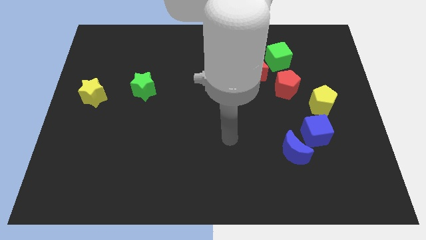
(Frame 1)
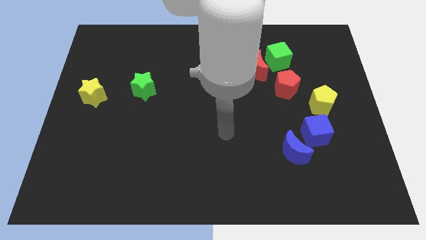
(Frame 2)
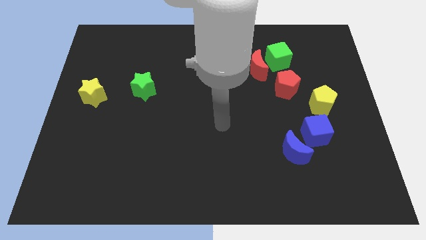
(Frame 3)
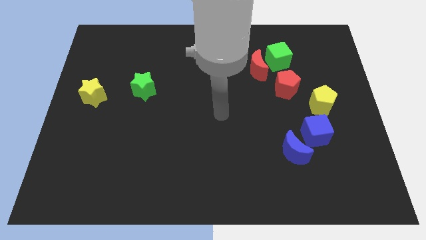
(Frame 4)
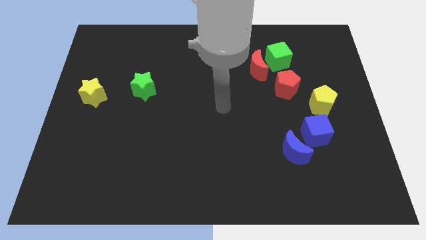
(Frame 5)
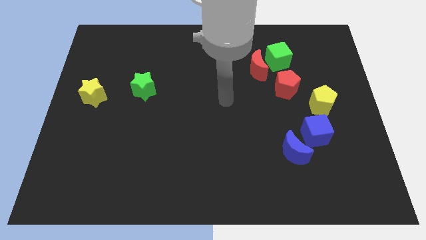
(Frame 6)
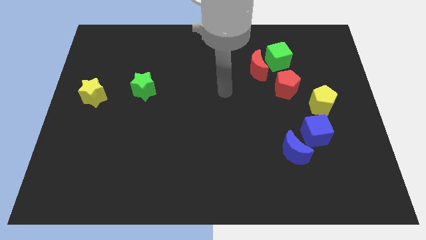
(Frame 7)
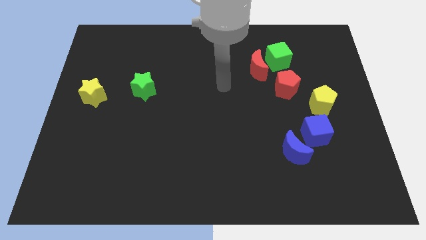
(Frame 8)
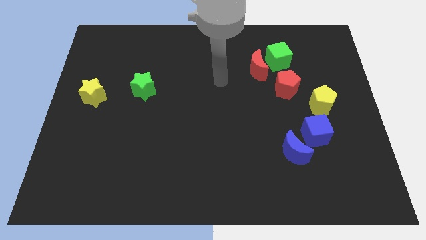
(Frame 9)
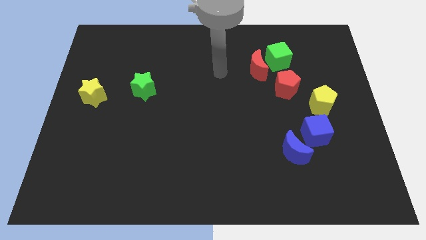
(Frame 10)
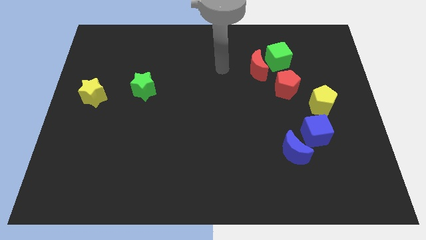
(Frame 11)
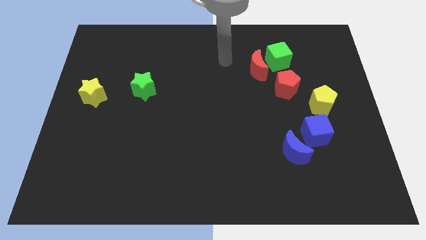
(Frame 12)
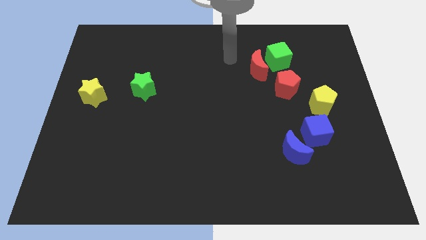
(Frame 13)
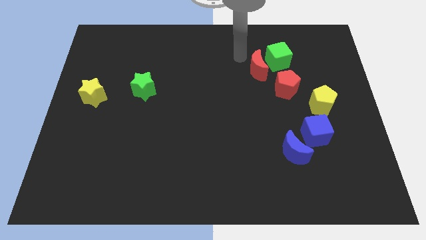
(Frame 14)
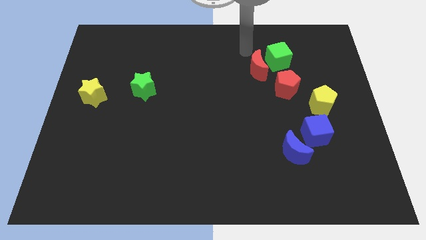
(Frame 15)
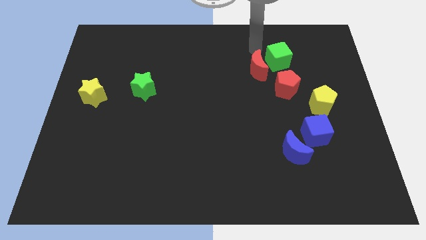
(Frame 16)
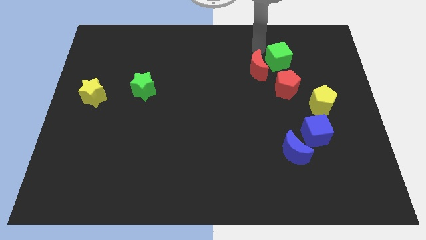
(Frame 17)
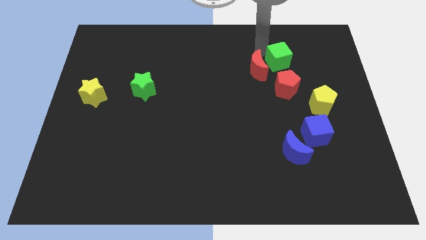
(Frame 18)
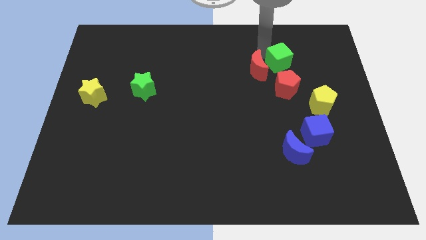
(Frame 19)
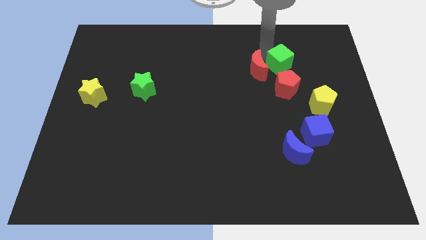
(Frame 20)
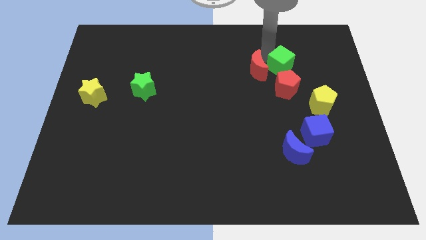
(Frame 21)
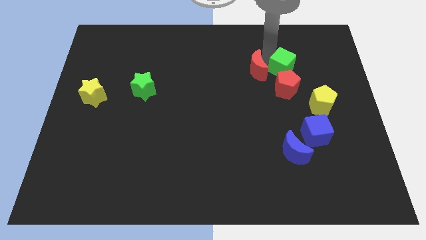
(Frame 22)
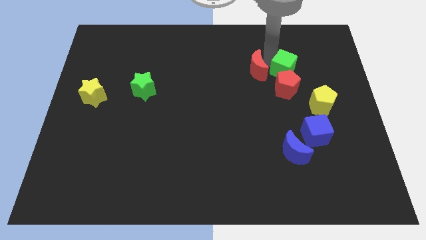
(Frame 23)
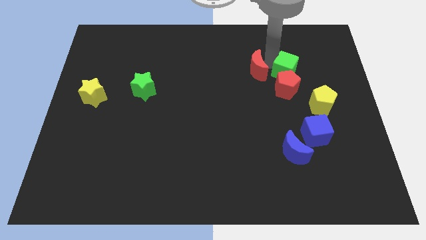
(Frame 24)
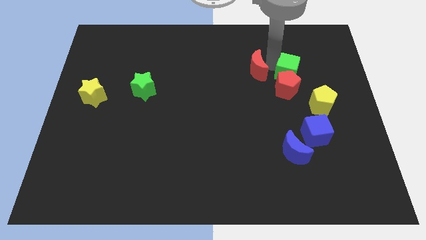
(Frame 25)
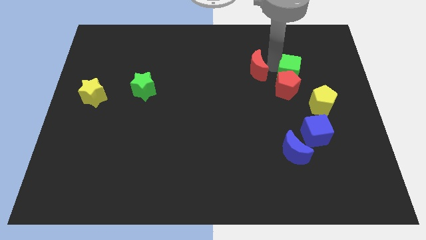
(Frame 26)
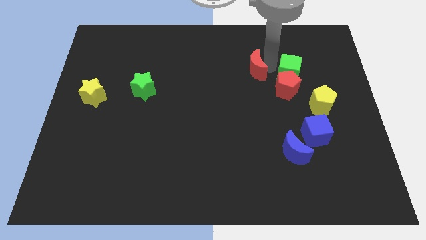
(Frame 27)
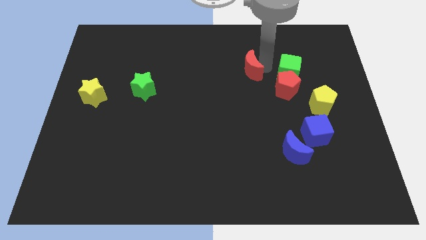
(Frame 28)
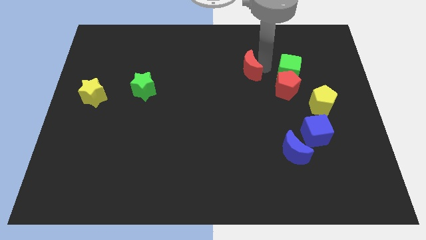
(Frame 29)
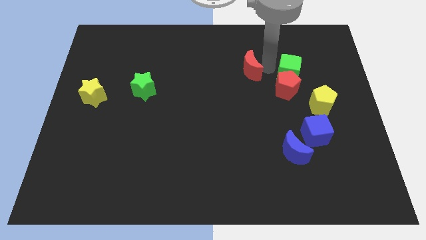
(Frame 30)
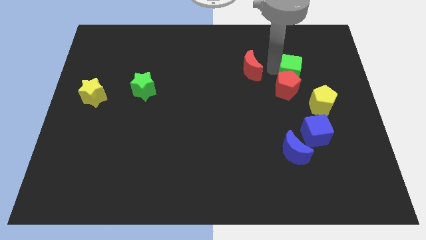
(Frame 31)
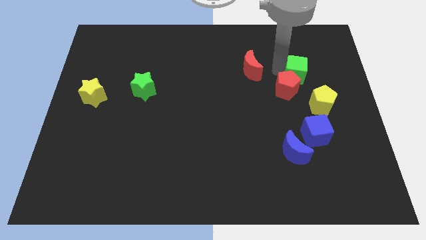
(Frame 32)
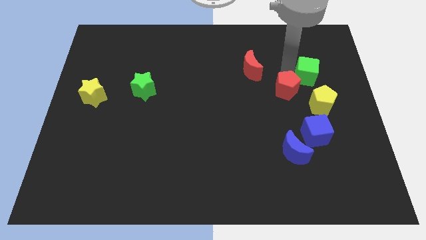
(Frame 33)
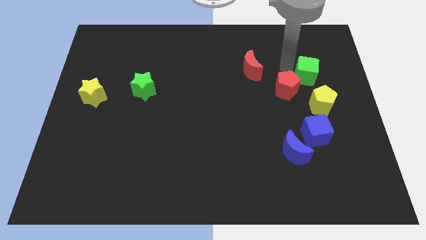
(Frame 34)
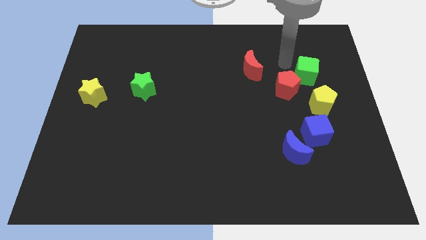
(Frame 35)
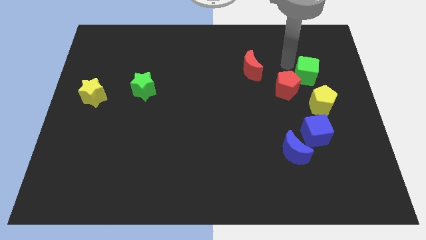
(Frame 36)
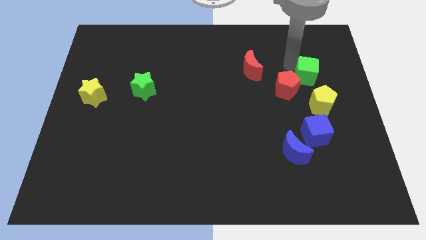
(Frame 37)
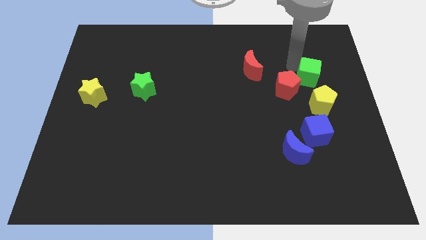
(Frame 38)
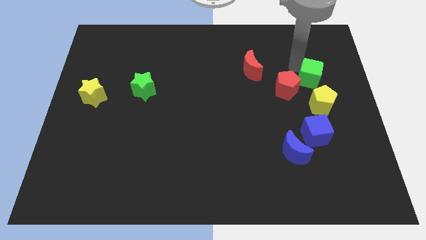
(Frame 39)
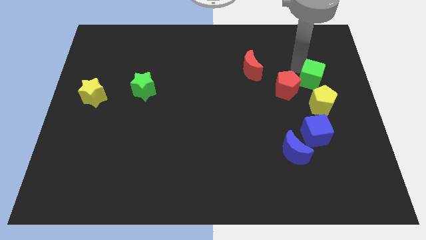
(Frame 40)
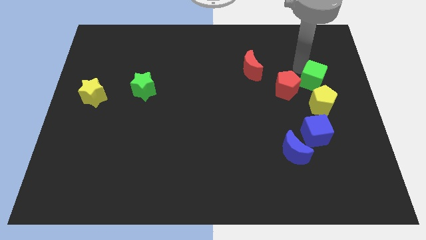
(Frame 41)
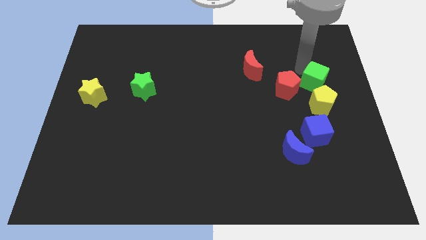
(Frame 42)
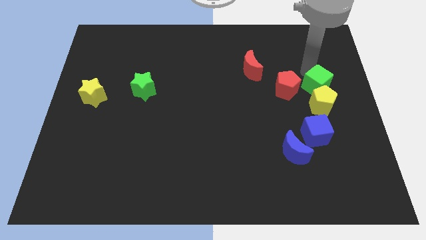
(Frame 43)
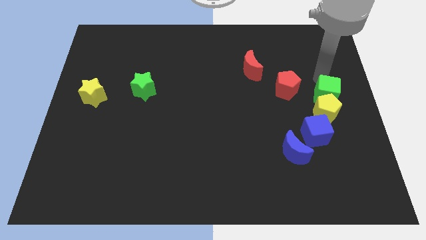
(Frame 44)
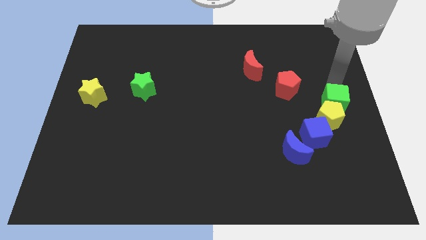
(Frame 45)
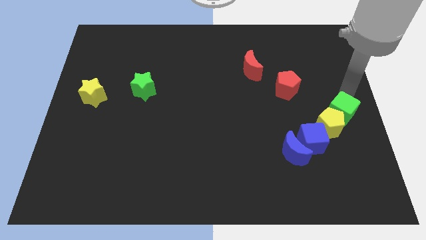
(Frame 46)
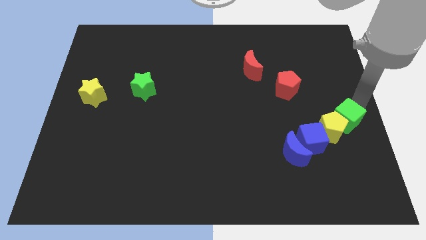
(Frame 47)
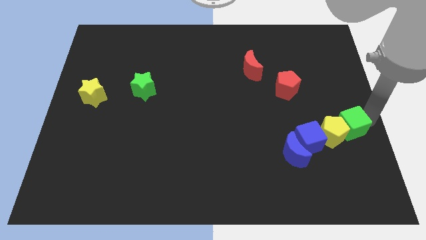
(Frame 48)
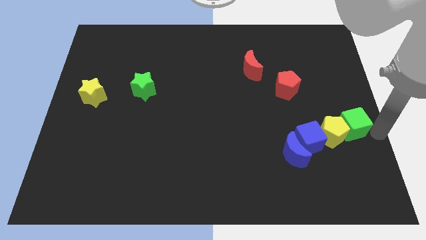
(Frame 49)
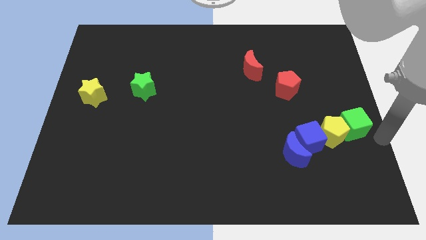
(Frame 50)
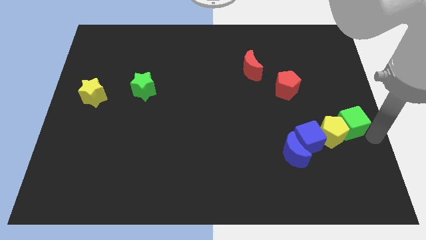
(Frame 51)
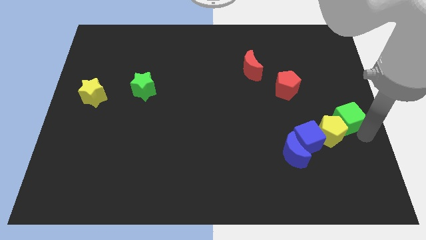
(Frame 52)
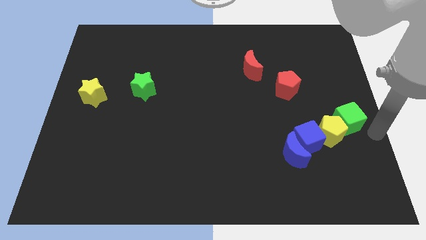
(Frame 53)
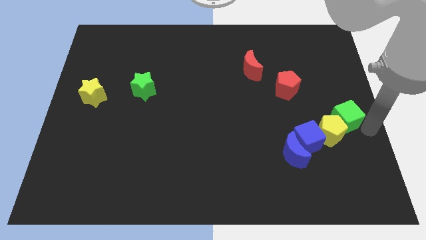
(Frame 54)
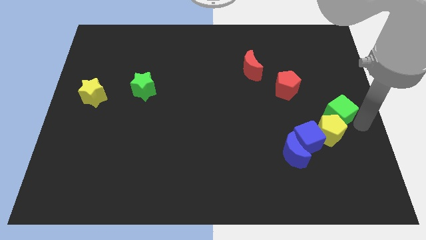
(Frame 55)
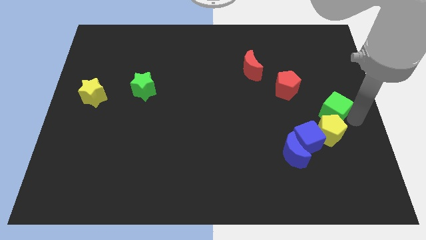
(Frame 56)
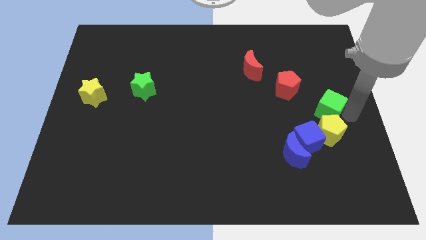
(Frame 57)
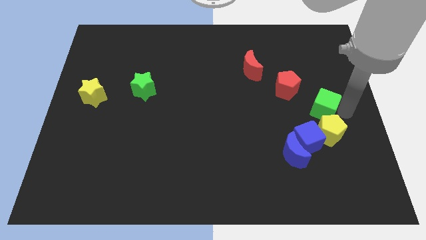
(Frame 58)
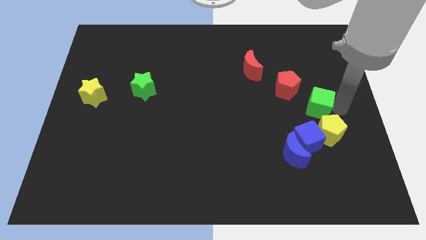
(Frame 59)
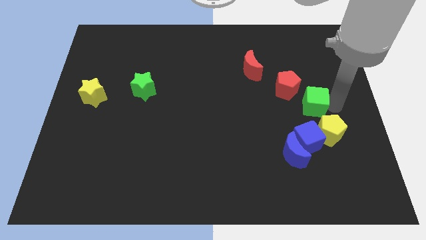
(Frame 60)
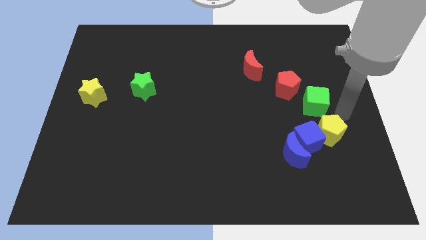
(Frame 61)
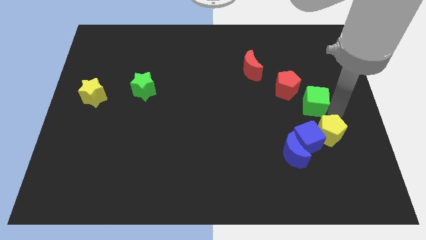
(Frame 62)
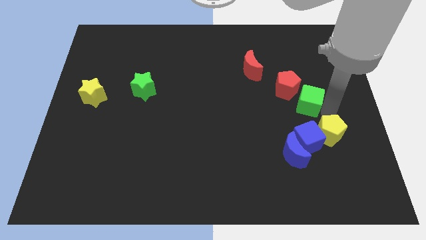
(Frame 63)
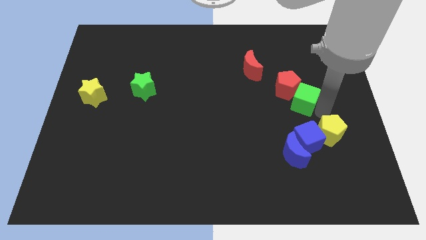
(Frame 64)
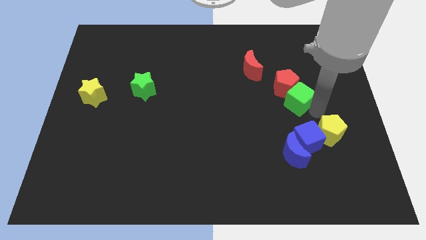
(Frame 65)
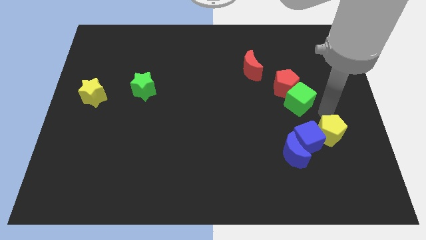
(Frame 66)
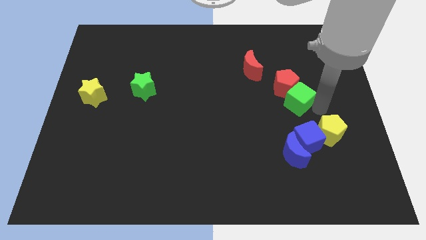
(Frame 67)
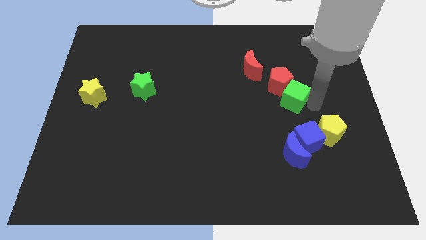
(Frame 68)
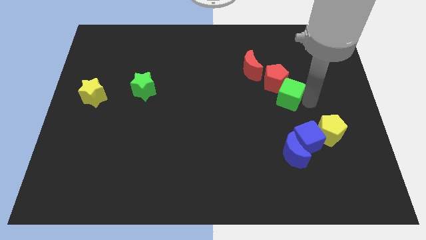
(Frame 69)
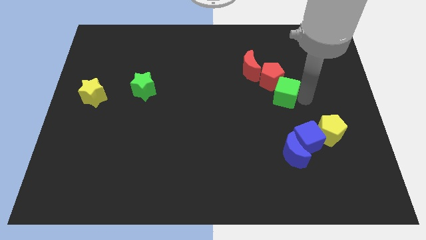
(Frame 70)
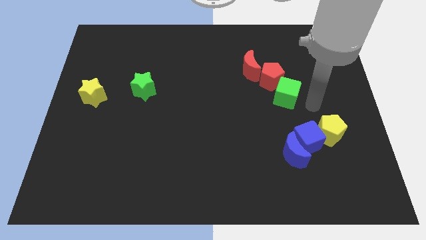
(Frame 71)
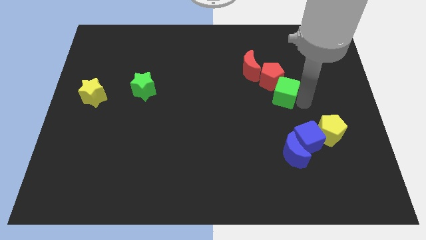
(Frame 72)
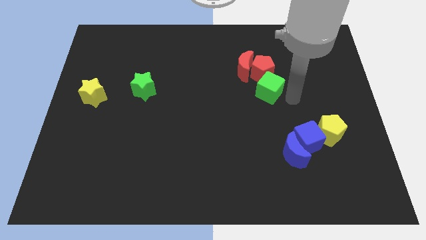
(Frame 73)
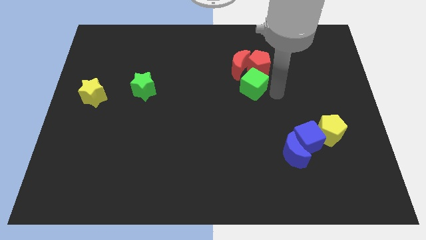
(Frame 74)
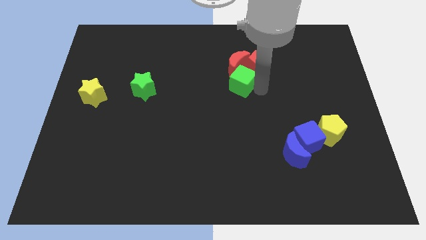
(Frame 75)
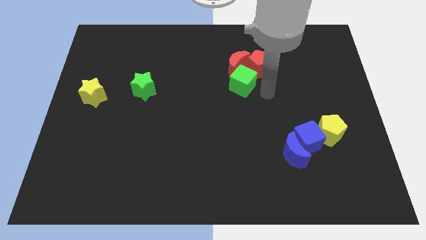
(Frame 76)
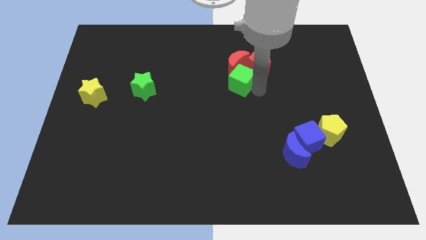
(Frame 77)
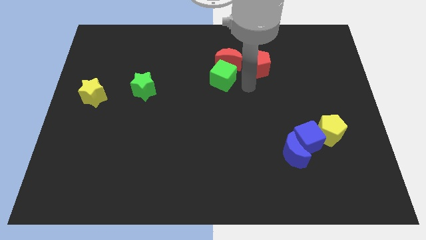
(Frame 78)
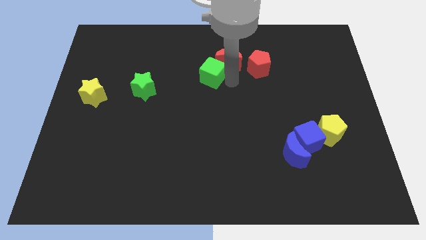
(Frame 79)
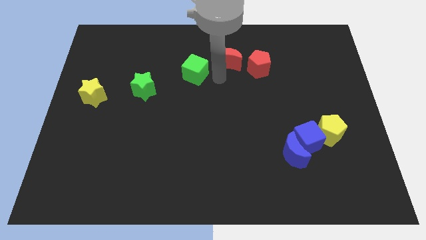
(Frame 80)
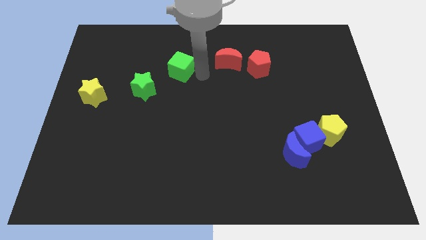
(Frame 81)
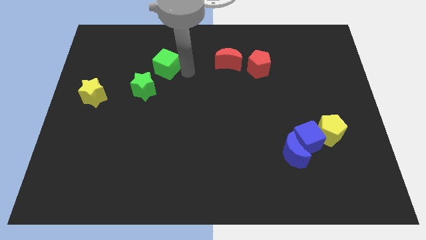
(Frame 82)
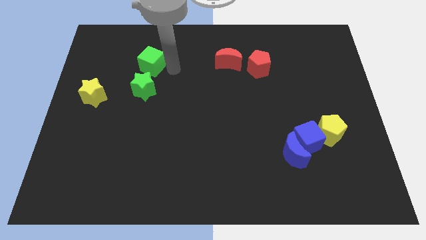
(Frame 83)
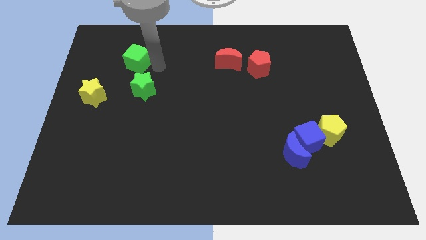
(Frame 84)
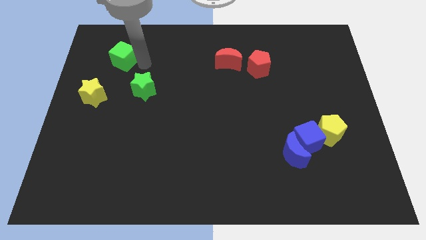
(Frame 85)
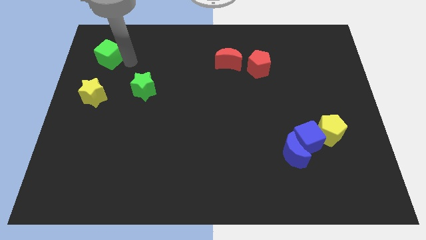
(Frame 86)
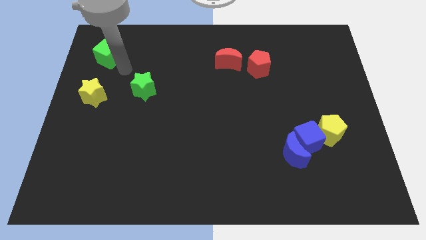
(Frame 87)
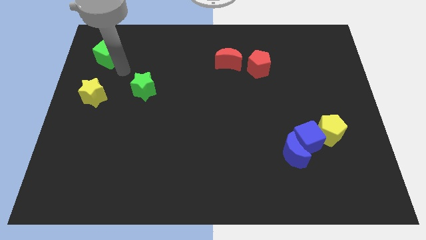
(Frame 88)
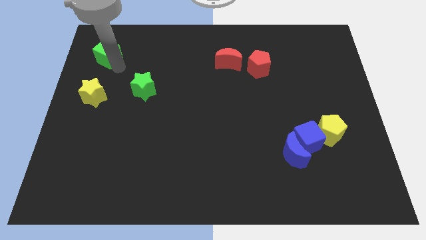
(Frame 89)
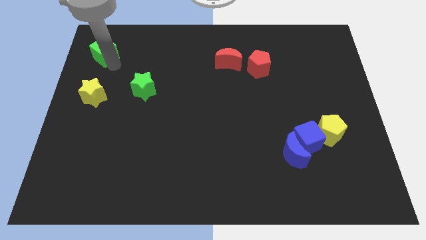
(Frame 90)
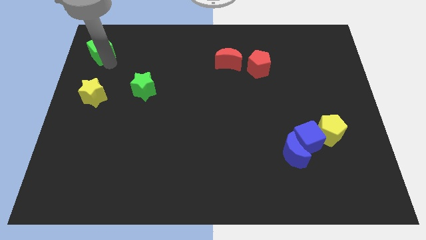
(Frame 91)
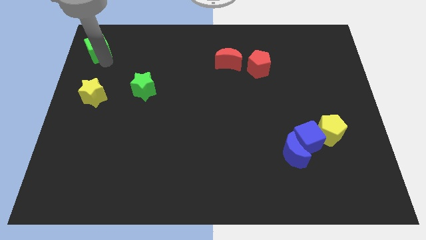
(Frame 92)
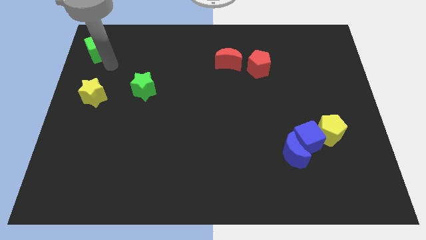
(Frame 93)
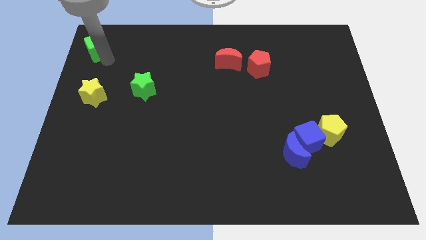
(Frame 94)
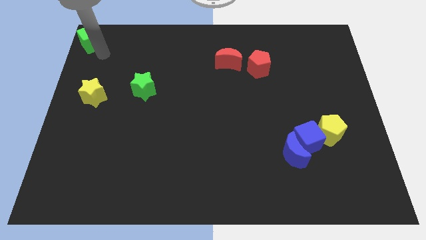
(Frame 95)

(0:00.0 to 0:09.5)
slide the green cube to the upper left corner
